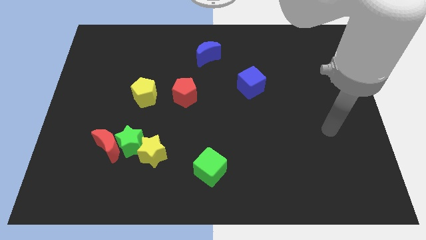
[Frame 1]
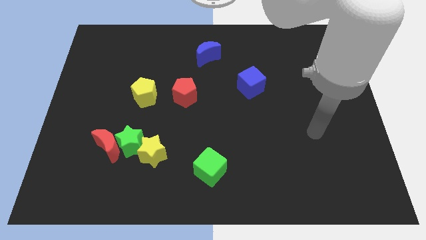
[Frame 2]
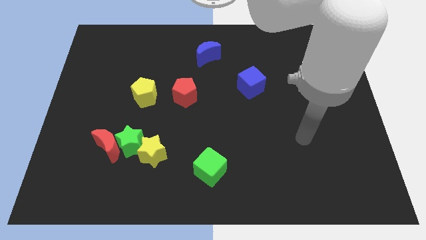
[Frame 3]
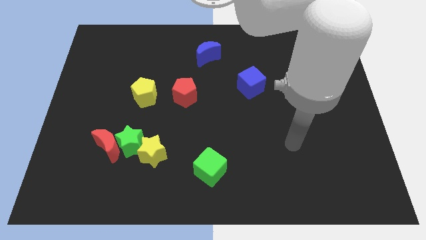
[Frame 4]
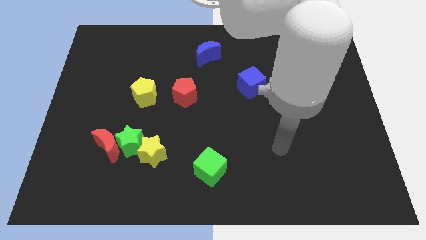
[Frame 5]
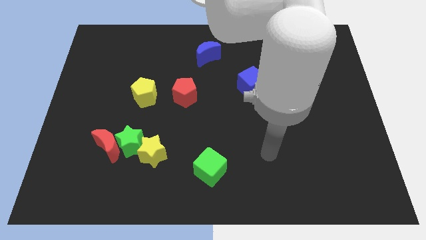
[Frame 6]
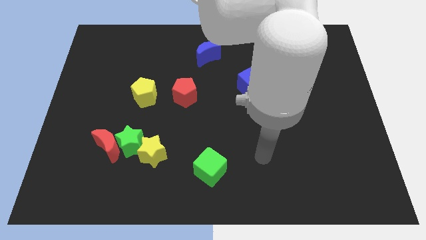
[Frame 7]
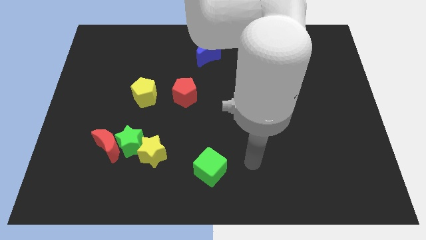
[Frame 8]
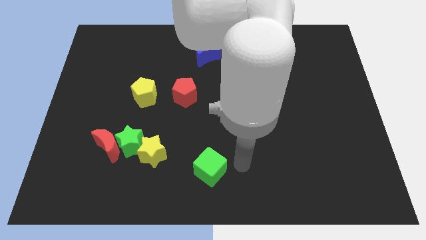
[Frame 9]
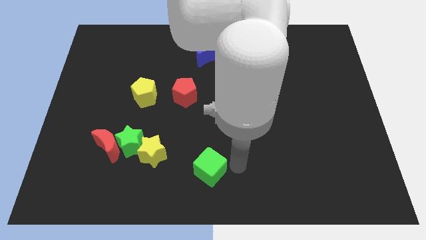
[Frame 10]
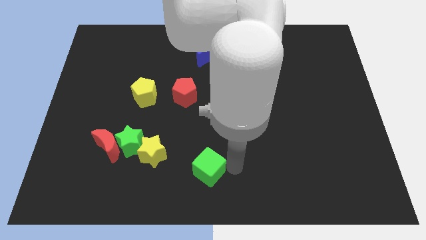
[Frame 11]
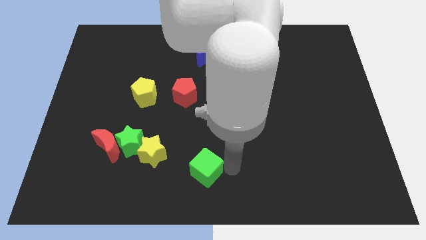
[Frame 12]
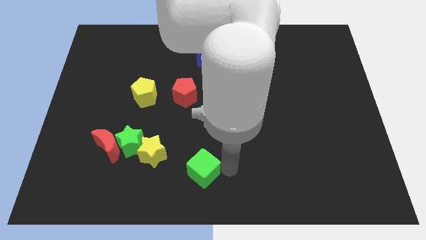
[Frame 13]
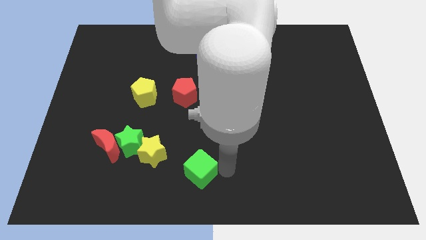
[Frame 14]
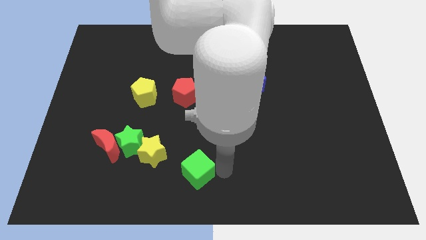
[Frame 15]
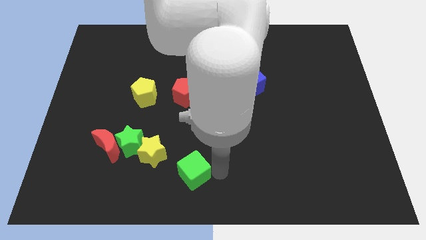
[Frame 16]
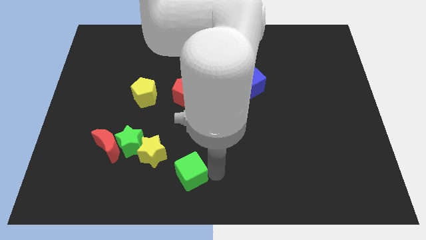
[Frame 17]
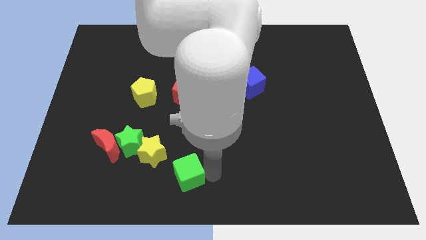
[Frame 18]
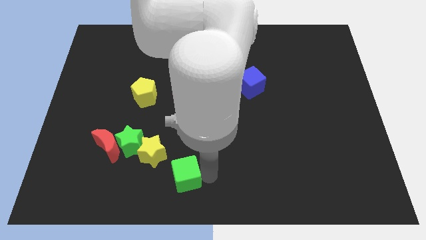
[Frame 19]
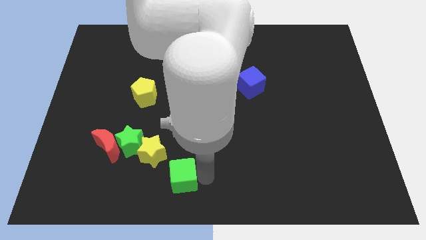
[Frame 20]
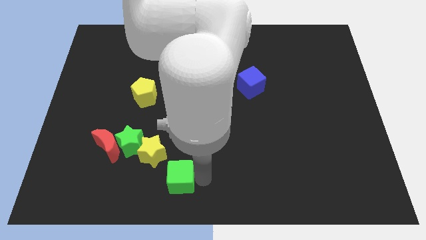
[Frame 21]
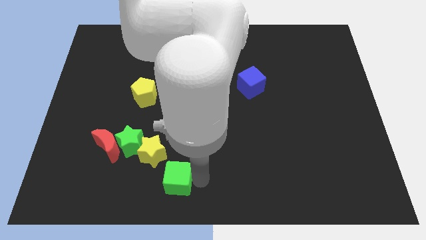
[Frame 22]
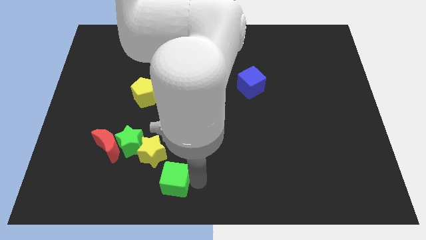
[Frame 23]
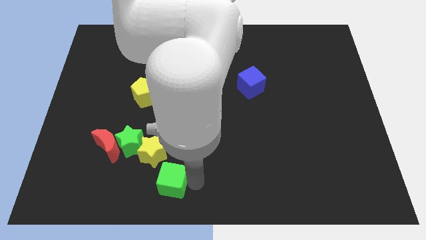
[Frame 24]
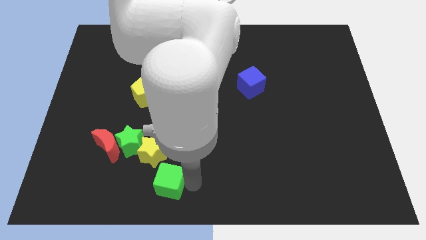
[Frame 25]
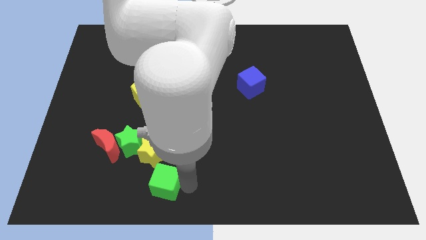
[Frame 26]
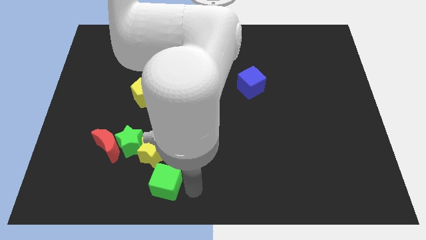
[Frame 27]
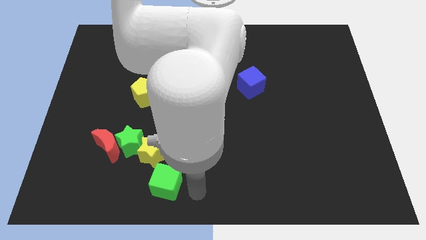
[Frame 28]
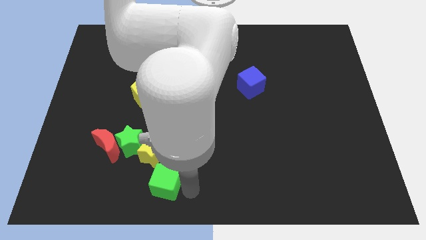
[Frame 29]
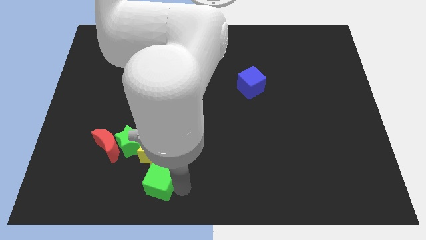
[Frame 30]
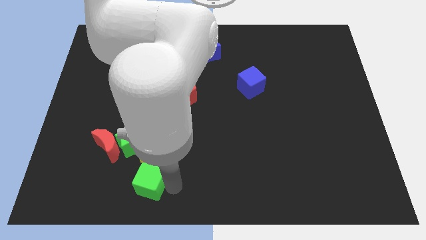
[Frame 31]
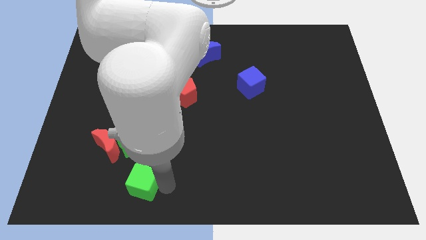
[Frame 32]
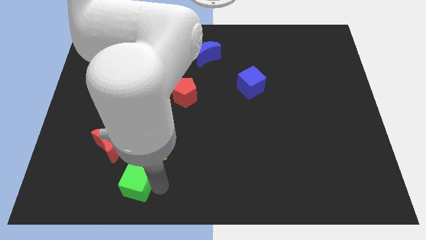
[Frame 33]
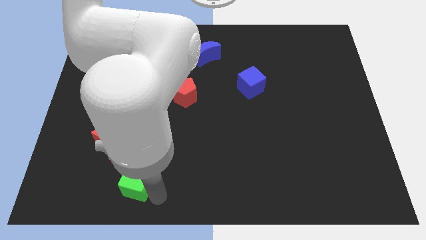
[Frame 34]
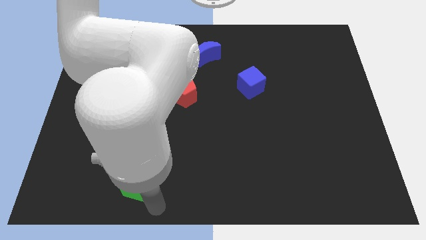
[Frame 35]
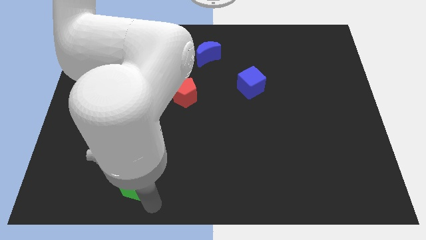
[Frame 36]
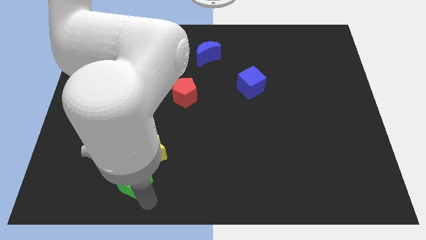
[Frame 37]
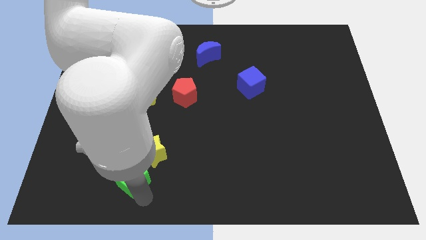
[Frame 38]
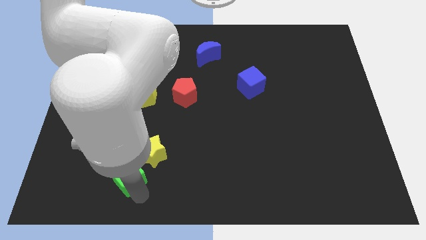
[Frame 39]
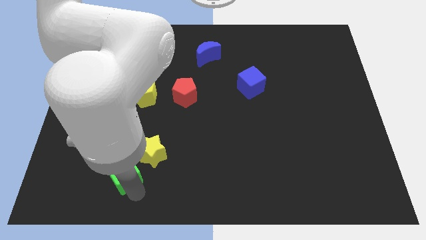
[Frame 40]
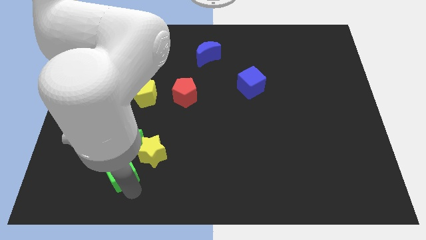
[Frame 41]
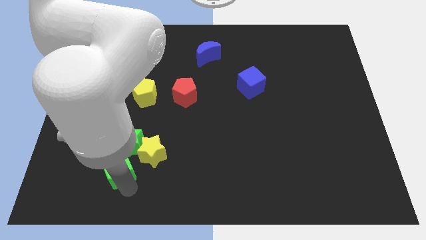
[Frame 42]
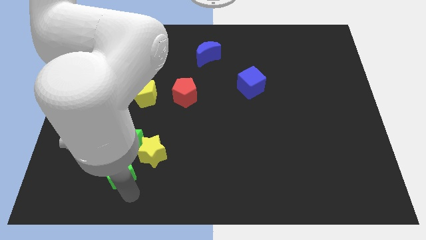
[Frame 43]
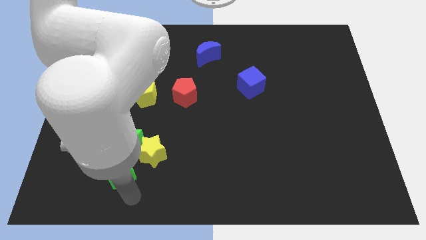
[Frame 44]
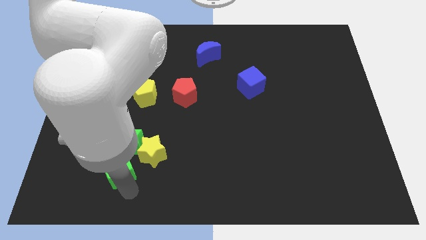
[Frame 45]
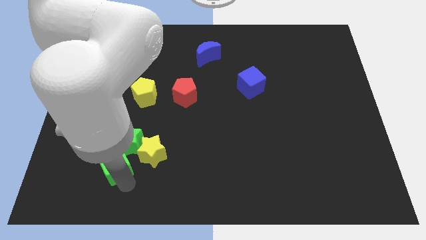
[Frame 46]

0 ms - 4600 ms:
push the green cube towards the red moon

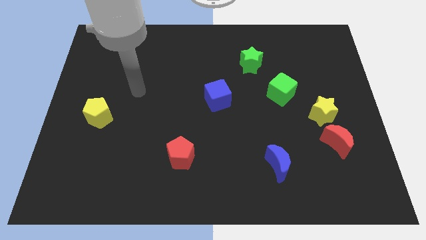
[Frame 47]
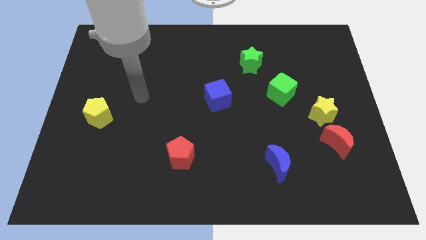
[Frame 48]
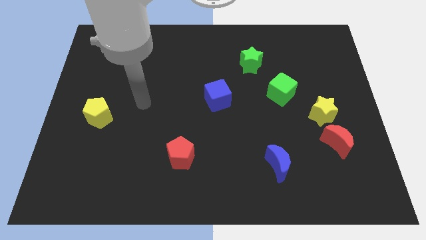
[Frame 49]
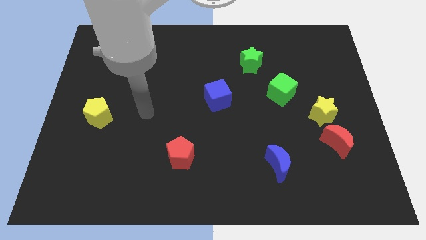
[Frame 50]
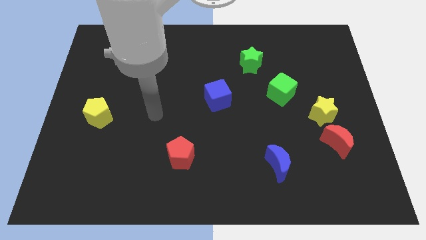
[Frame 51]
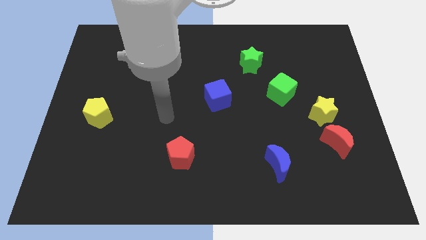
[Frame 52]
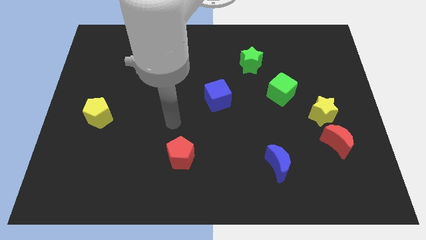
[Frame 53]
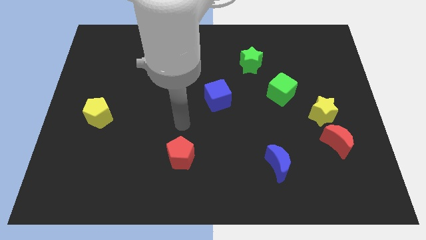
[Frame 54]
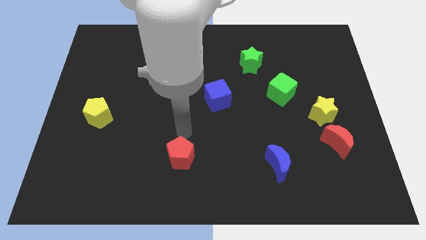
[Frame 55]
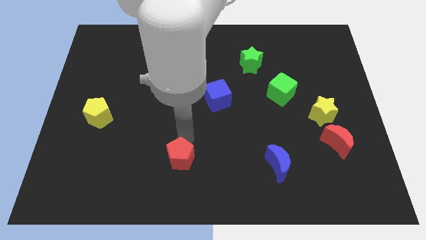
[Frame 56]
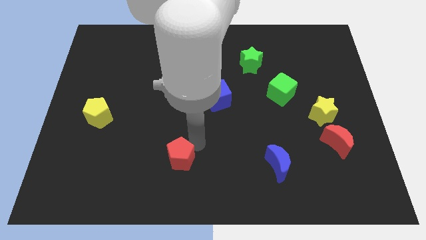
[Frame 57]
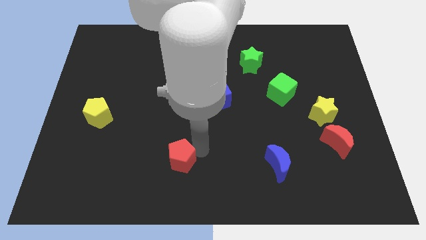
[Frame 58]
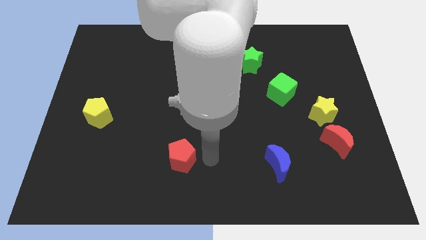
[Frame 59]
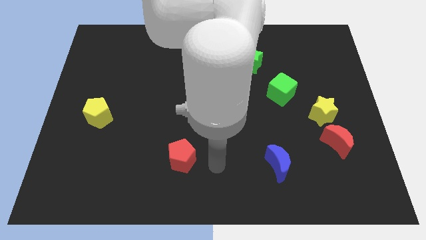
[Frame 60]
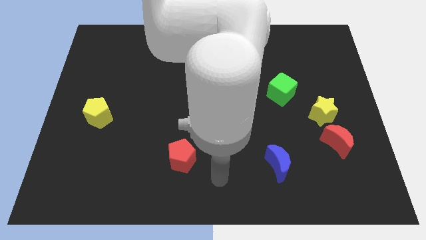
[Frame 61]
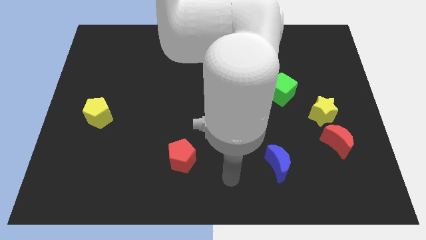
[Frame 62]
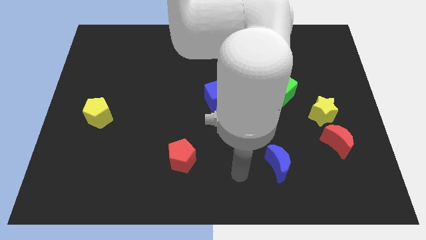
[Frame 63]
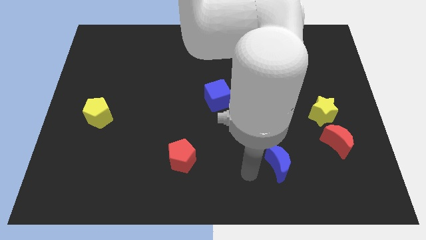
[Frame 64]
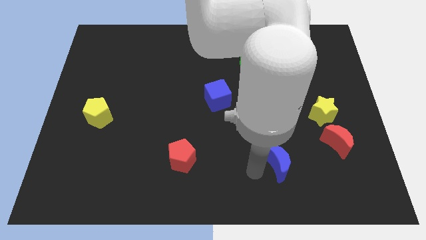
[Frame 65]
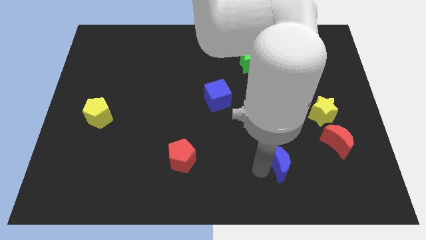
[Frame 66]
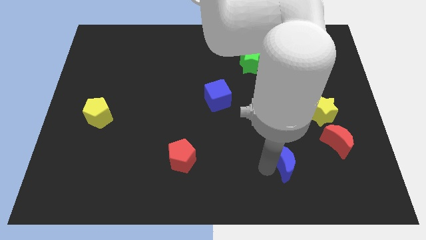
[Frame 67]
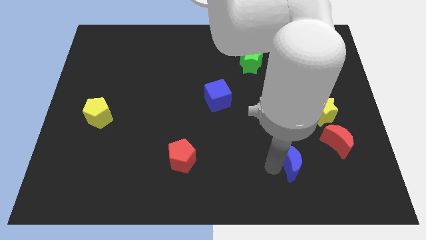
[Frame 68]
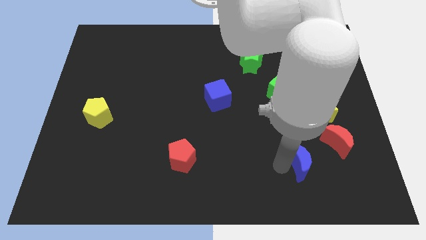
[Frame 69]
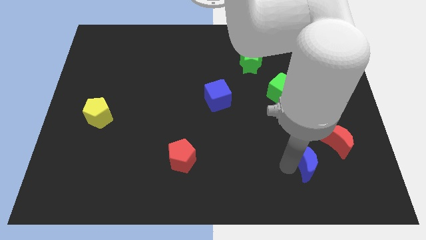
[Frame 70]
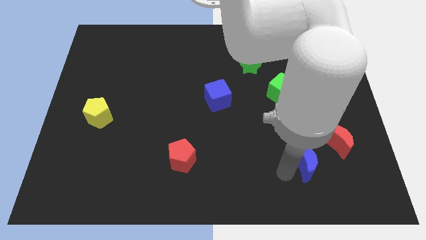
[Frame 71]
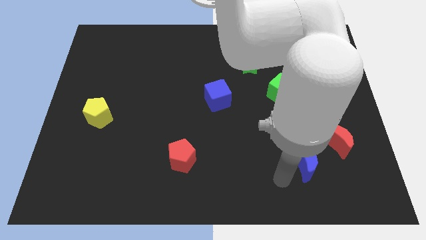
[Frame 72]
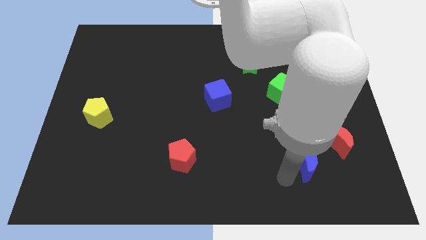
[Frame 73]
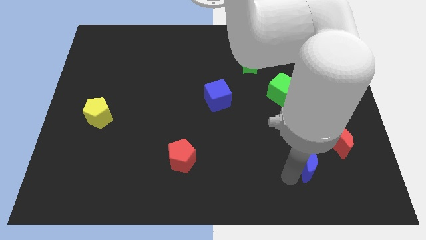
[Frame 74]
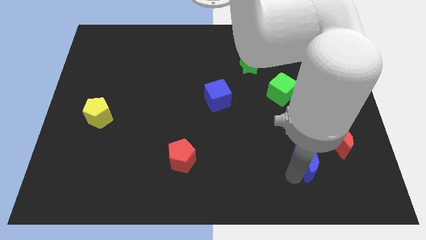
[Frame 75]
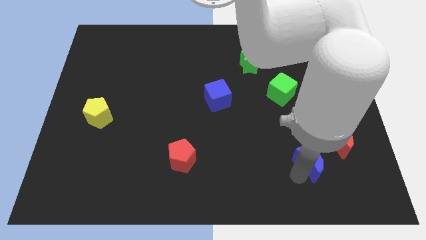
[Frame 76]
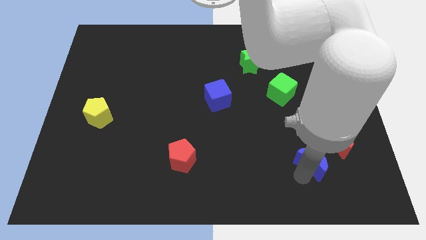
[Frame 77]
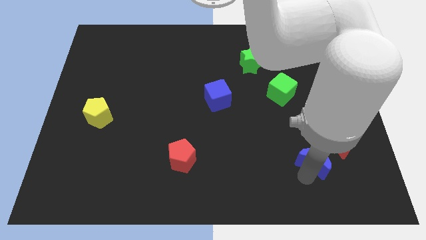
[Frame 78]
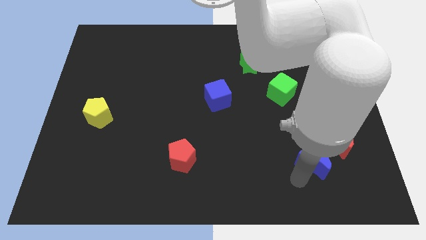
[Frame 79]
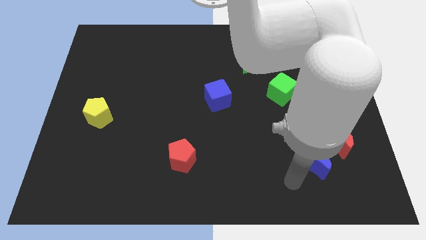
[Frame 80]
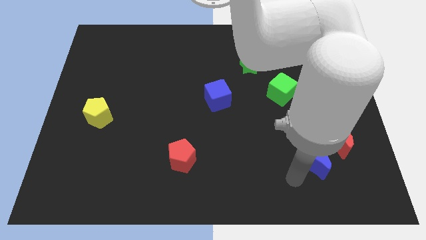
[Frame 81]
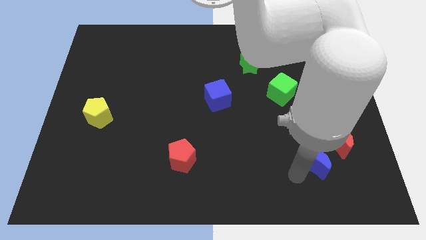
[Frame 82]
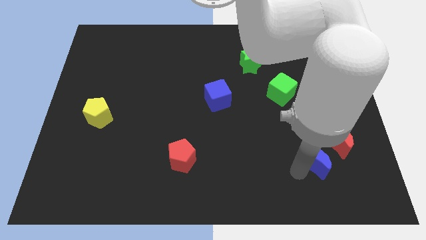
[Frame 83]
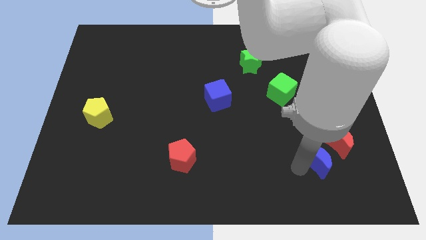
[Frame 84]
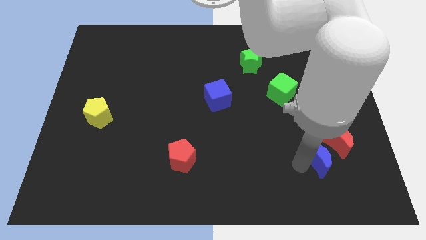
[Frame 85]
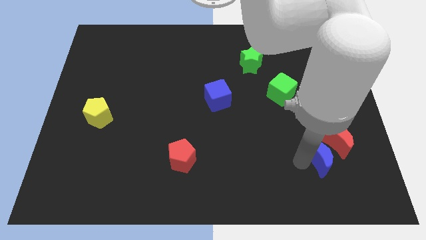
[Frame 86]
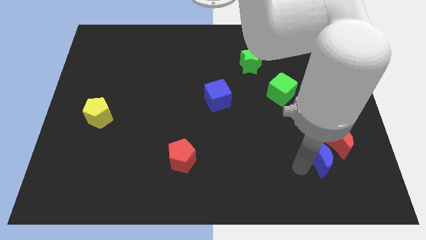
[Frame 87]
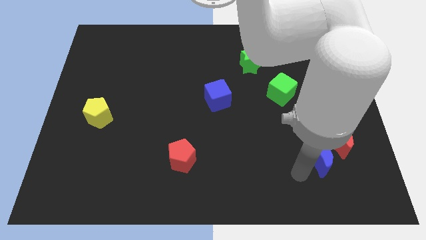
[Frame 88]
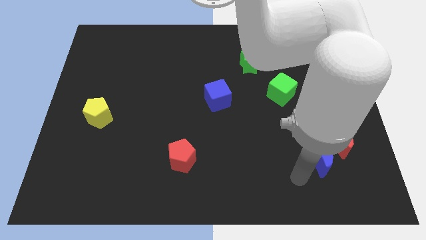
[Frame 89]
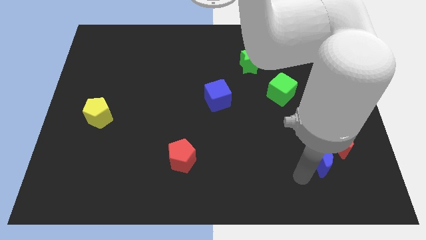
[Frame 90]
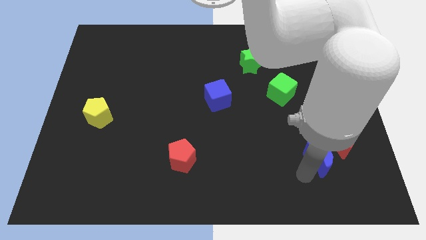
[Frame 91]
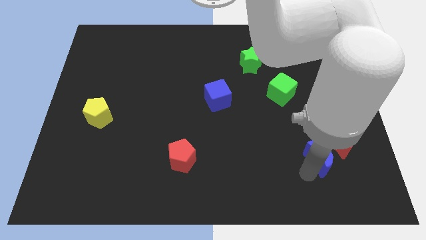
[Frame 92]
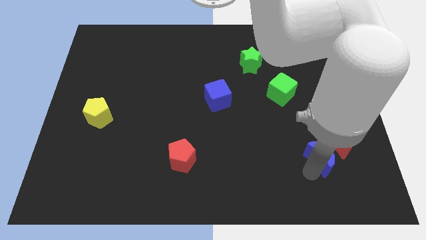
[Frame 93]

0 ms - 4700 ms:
put the blue moon close to the red moon
